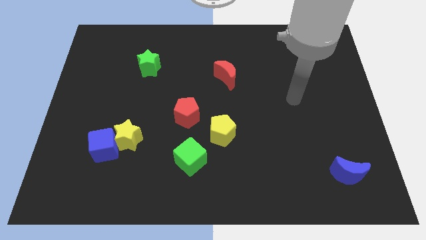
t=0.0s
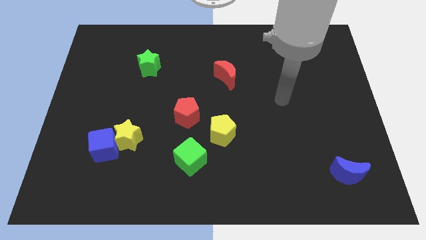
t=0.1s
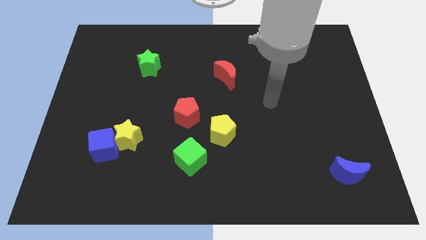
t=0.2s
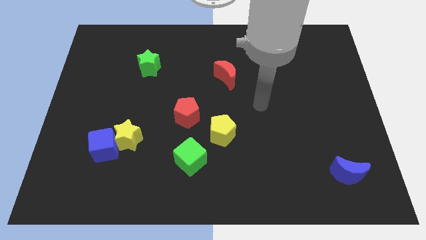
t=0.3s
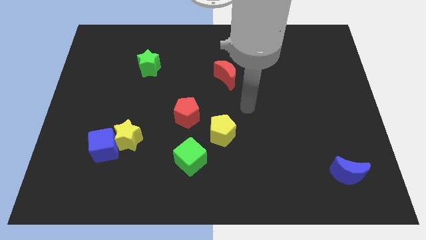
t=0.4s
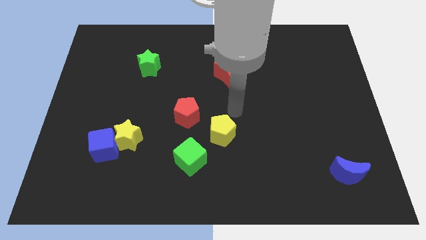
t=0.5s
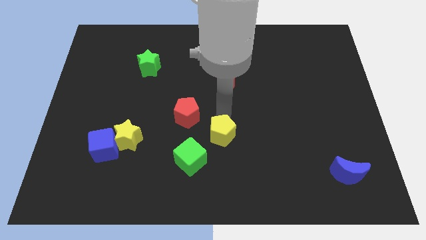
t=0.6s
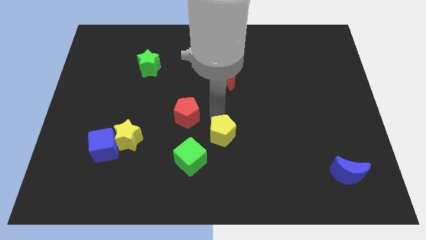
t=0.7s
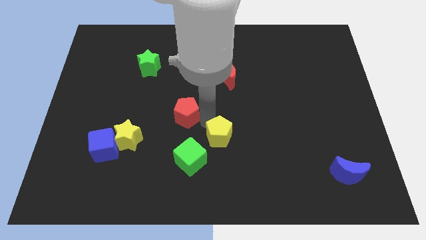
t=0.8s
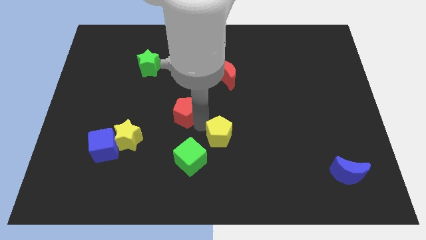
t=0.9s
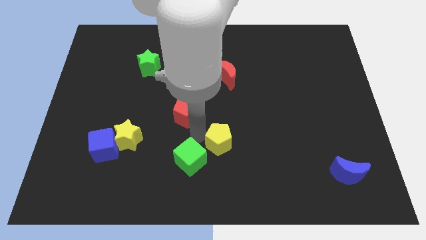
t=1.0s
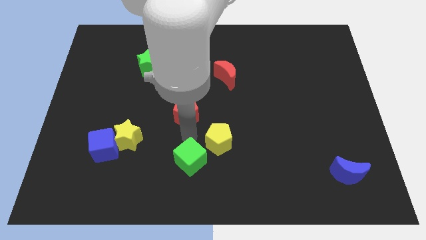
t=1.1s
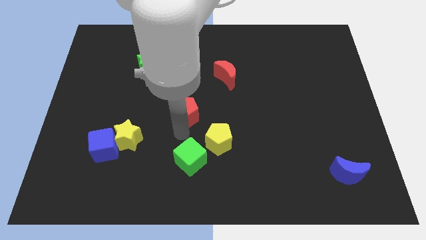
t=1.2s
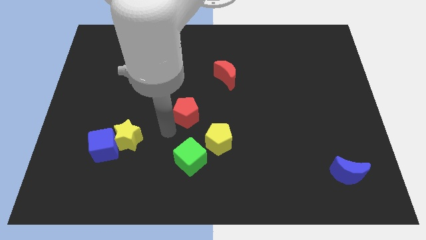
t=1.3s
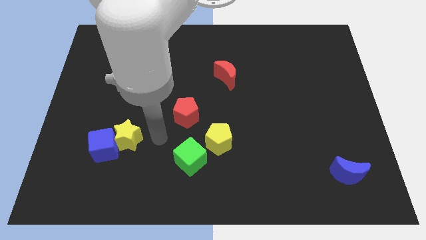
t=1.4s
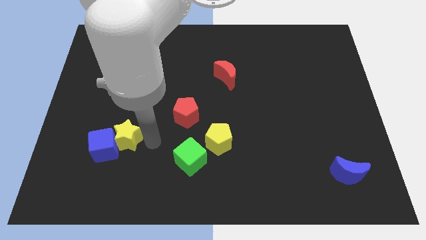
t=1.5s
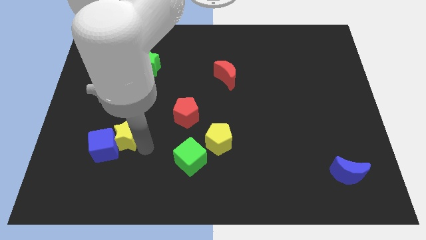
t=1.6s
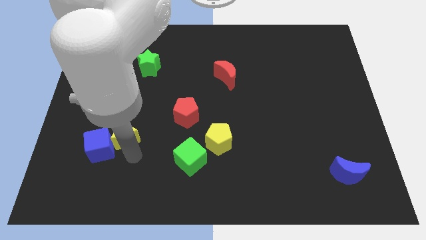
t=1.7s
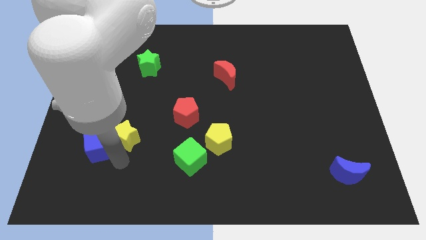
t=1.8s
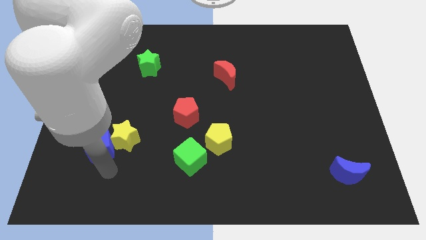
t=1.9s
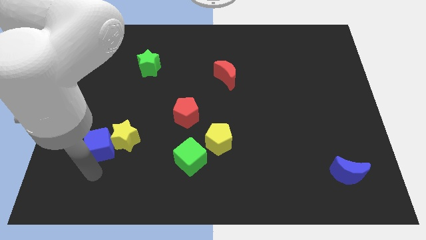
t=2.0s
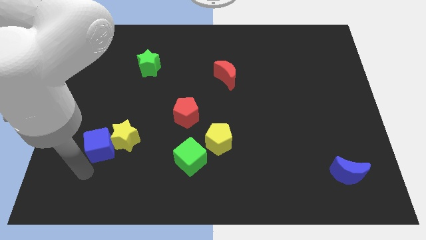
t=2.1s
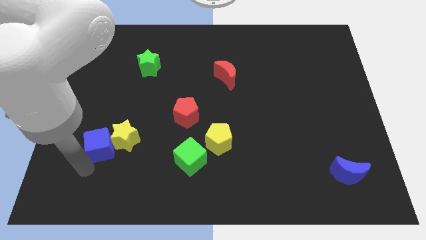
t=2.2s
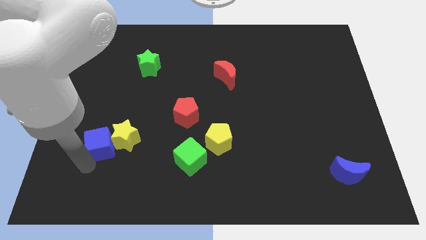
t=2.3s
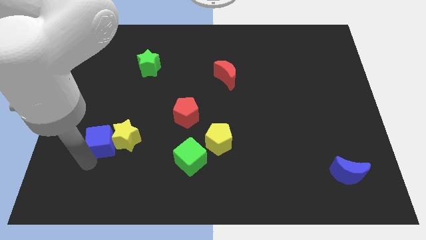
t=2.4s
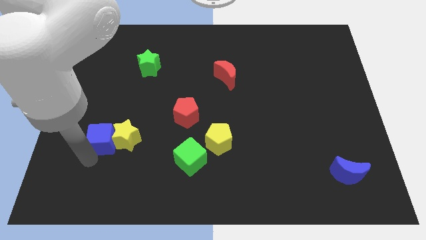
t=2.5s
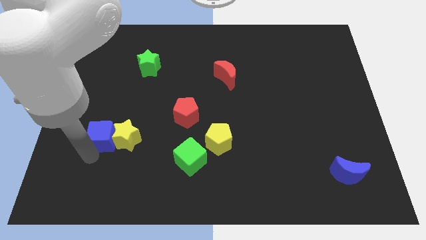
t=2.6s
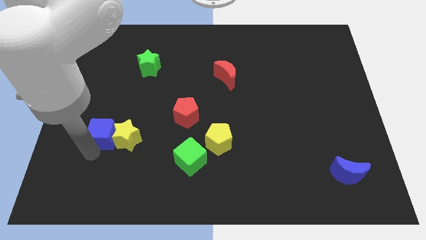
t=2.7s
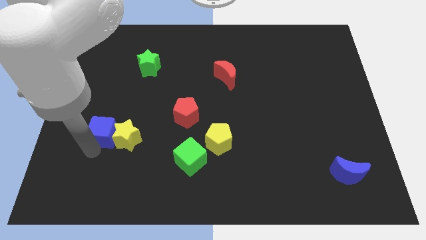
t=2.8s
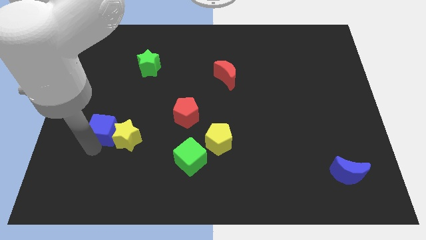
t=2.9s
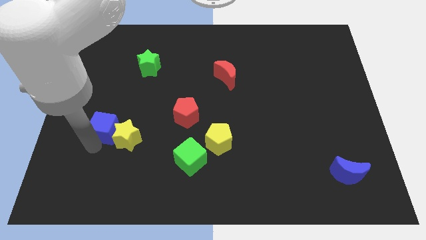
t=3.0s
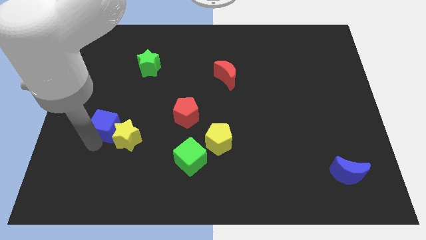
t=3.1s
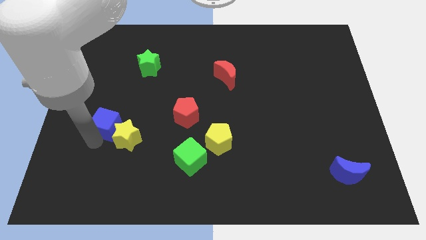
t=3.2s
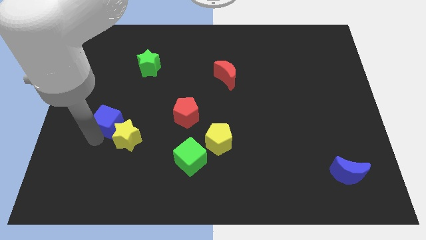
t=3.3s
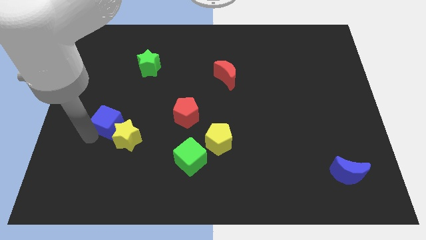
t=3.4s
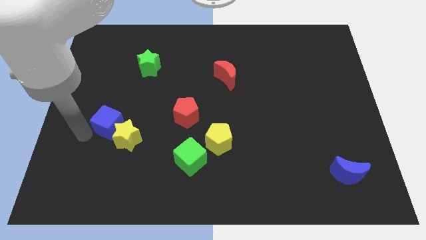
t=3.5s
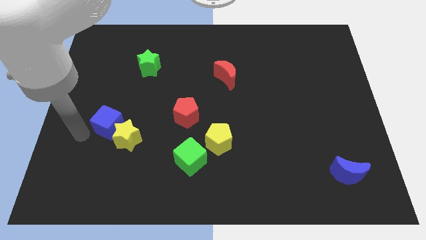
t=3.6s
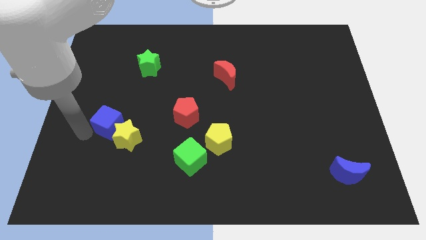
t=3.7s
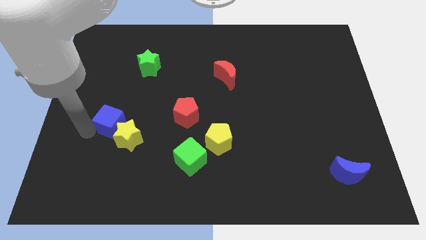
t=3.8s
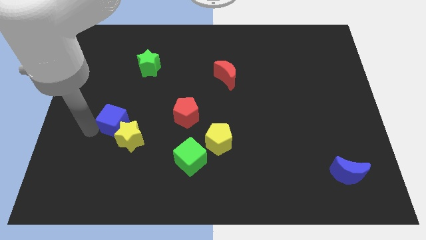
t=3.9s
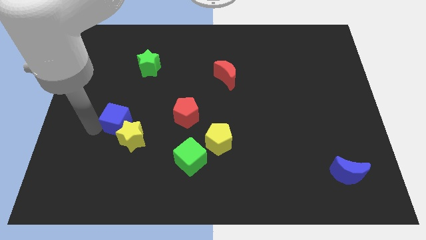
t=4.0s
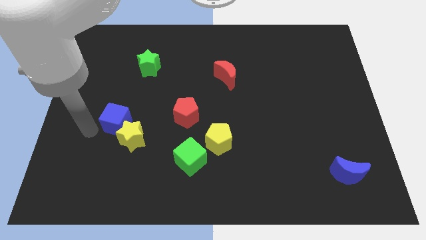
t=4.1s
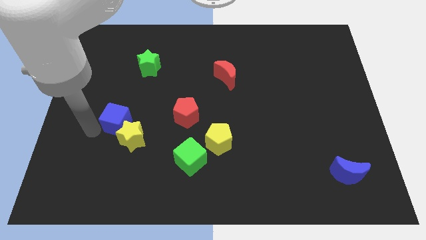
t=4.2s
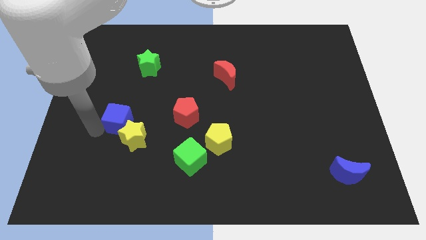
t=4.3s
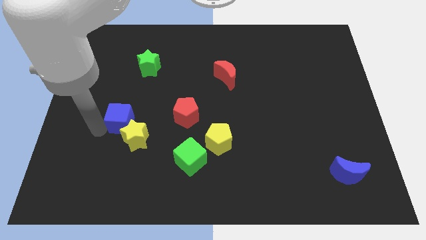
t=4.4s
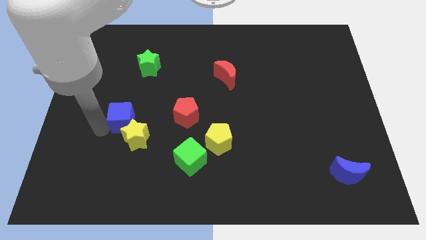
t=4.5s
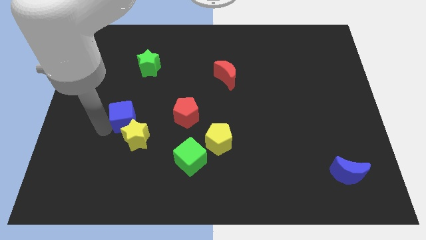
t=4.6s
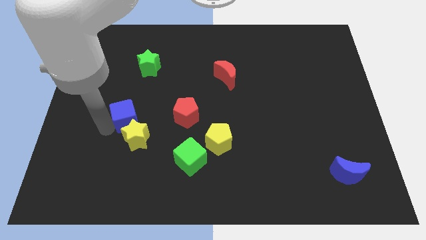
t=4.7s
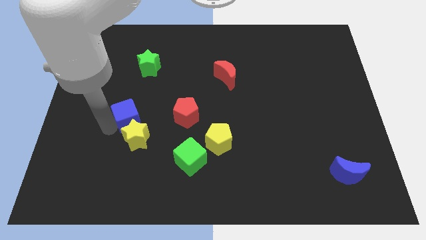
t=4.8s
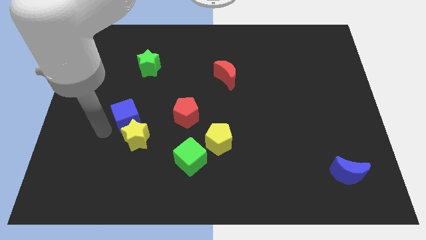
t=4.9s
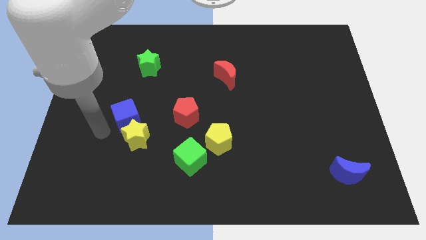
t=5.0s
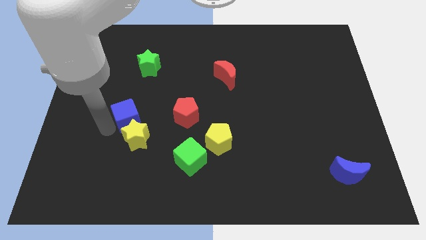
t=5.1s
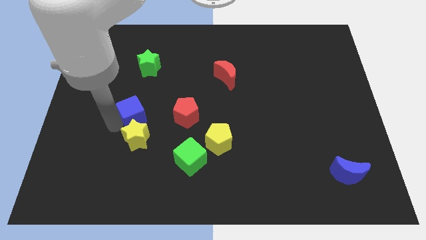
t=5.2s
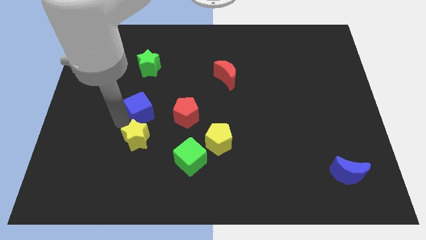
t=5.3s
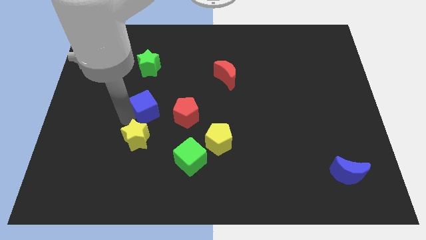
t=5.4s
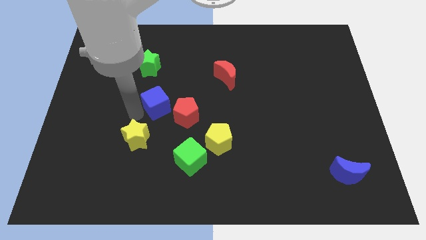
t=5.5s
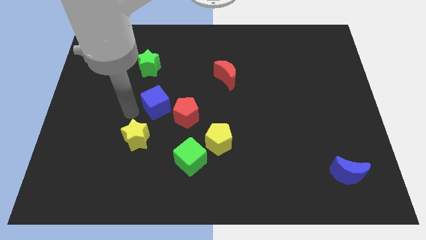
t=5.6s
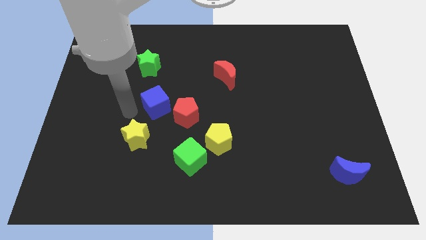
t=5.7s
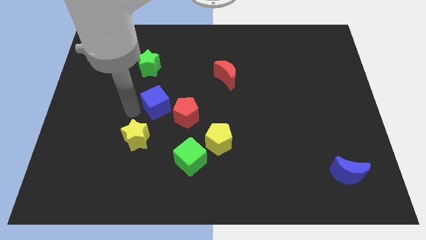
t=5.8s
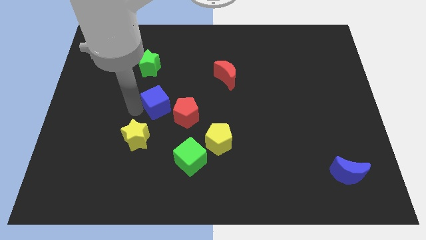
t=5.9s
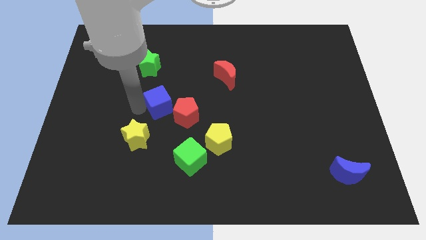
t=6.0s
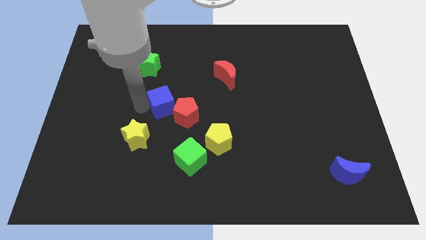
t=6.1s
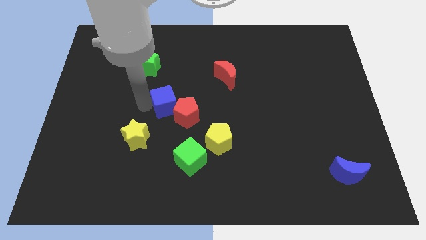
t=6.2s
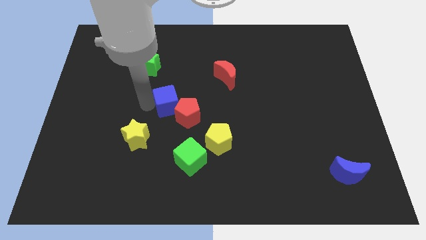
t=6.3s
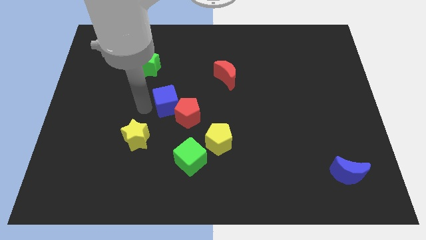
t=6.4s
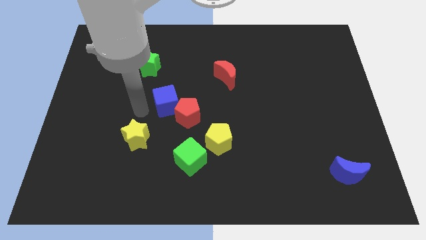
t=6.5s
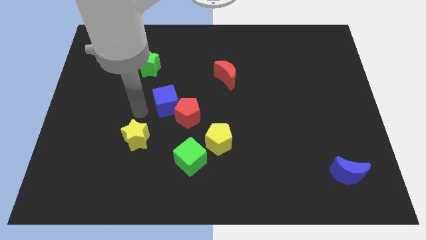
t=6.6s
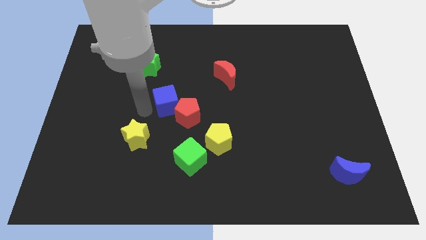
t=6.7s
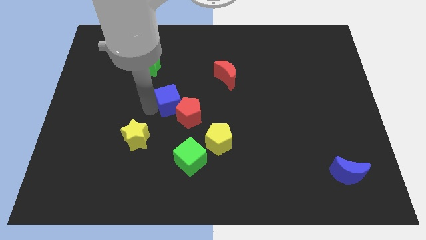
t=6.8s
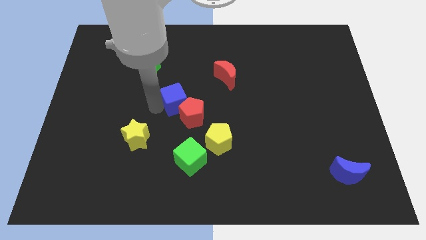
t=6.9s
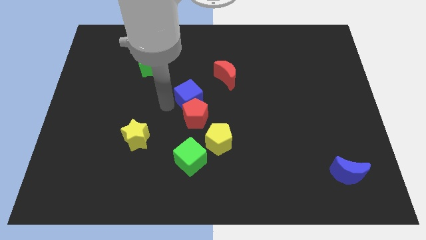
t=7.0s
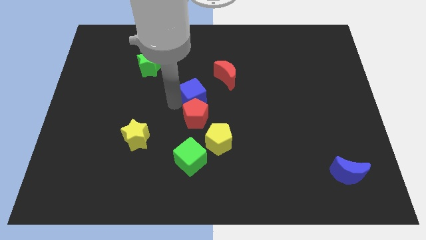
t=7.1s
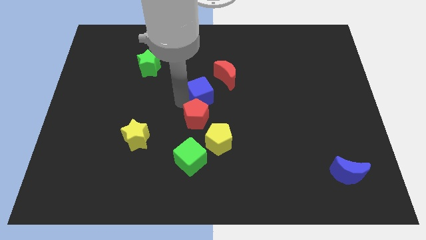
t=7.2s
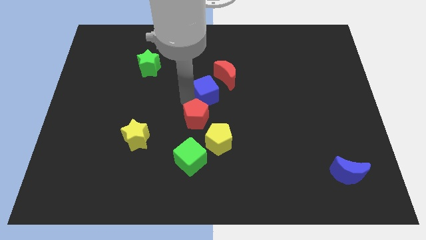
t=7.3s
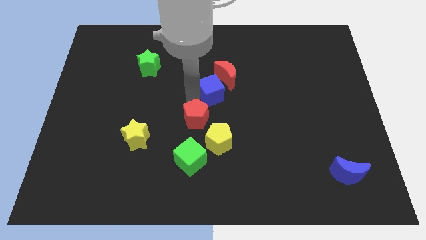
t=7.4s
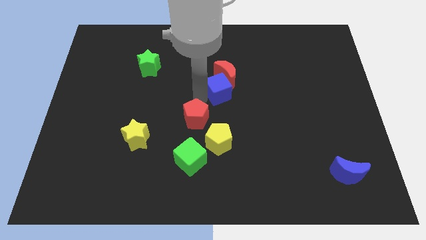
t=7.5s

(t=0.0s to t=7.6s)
move the blue cube to the red moon

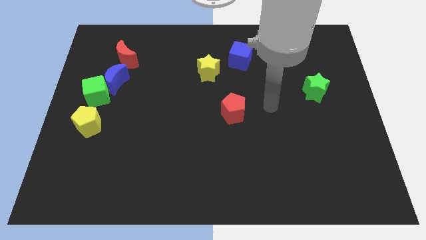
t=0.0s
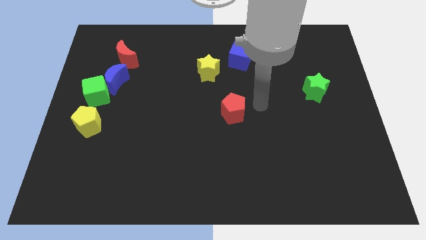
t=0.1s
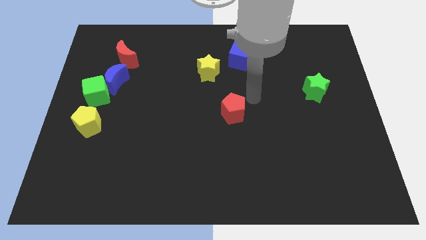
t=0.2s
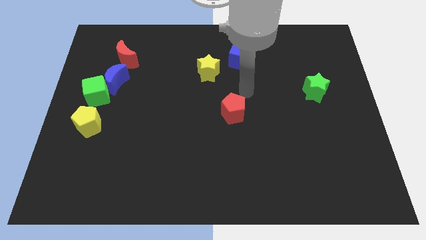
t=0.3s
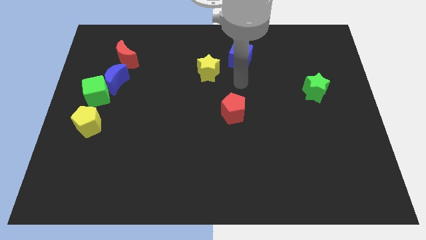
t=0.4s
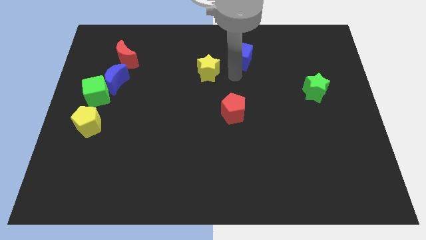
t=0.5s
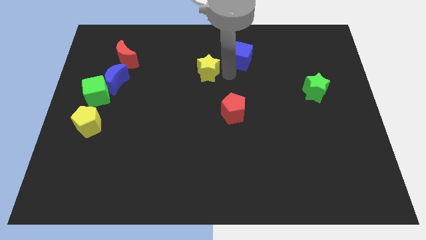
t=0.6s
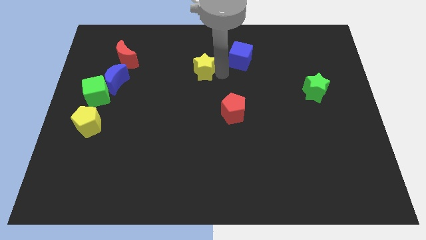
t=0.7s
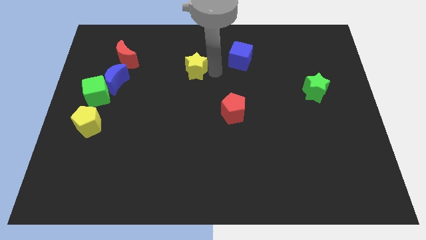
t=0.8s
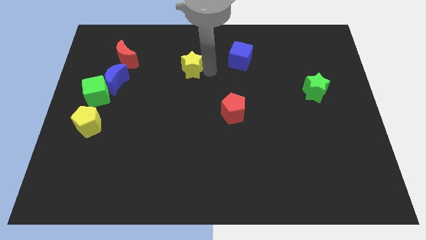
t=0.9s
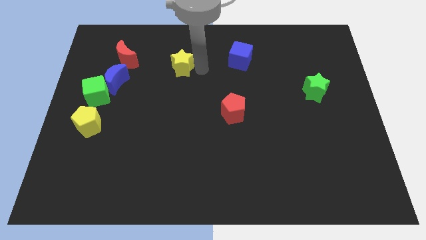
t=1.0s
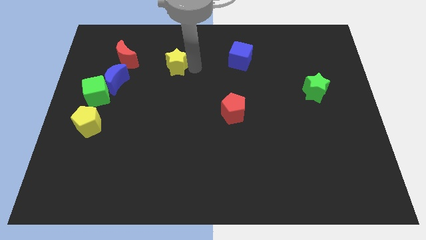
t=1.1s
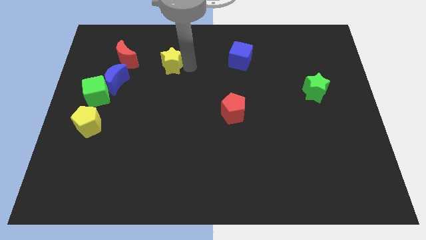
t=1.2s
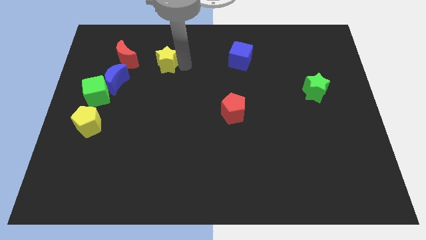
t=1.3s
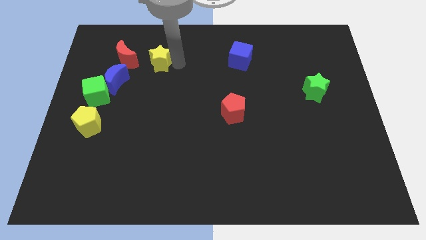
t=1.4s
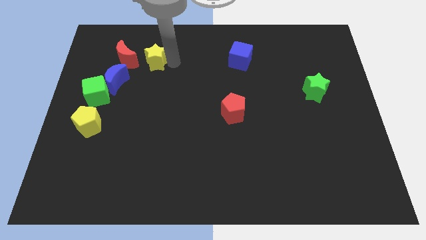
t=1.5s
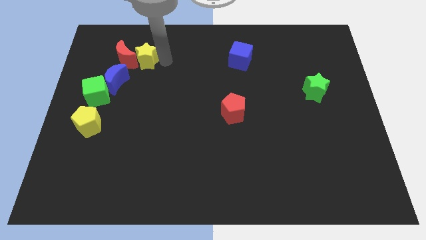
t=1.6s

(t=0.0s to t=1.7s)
move the yellow star close to the red moon
